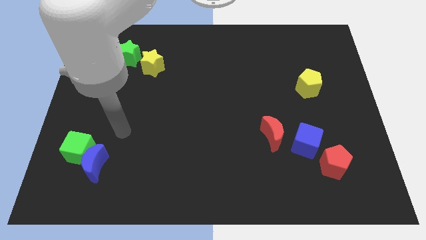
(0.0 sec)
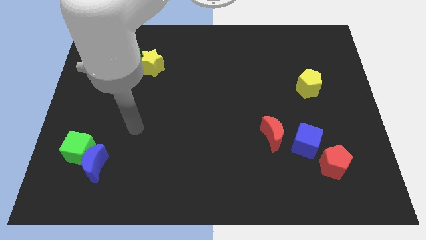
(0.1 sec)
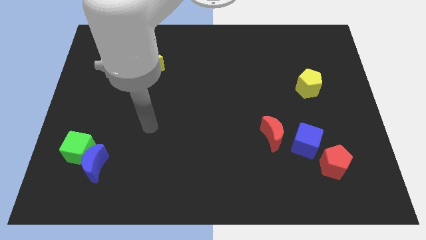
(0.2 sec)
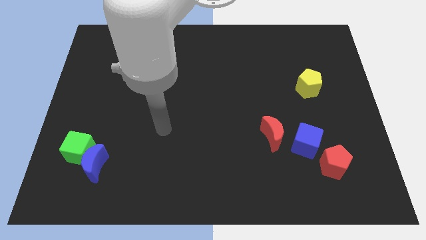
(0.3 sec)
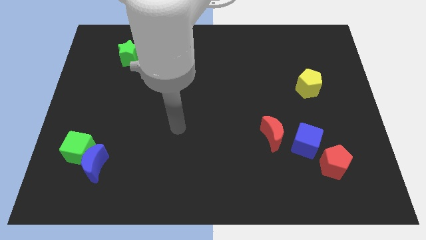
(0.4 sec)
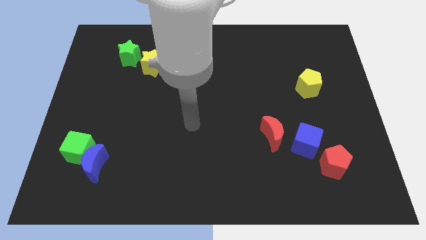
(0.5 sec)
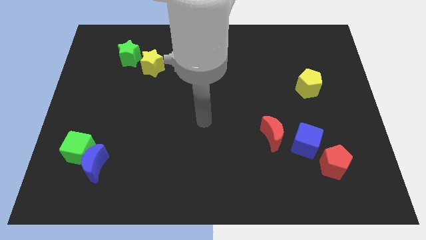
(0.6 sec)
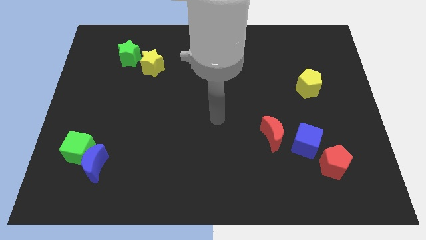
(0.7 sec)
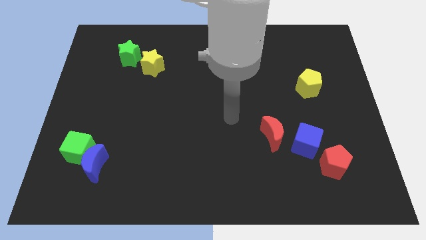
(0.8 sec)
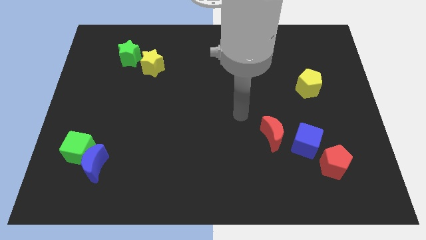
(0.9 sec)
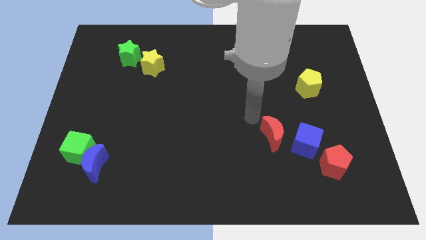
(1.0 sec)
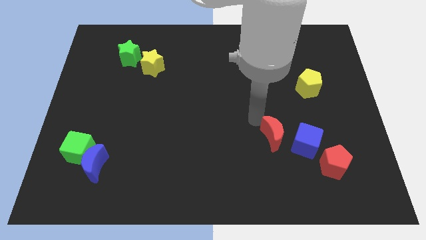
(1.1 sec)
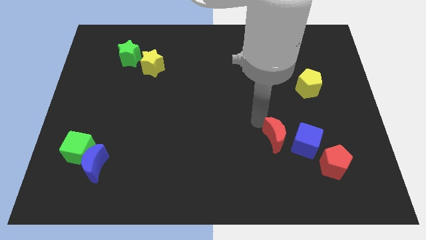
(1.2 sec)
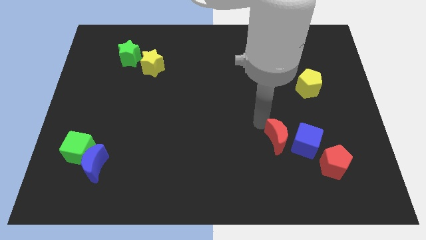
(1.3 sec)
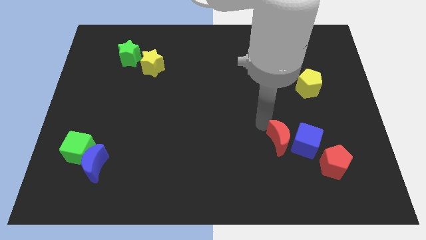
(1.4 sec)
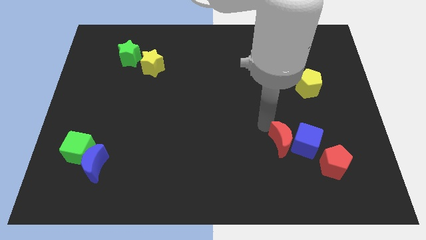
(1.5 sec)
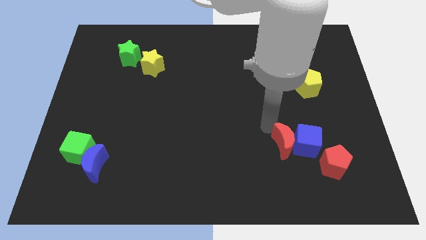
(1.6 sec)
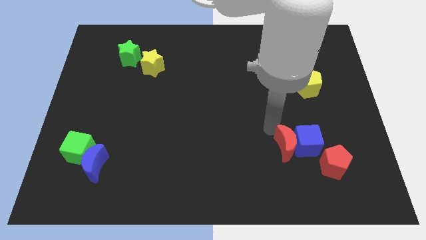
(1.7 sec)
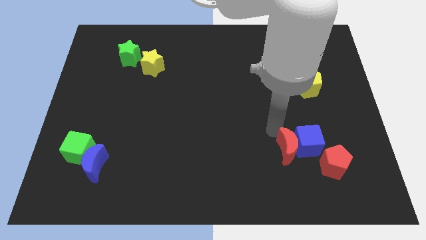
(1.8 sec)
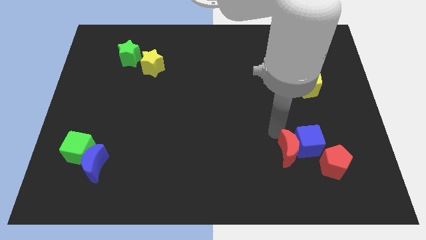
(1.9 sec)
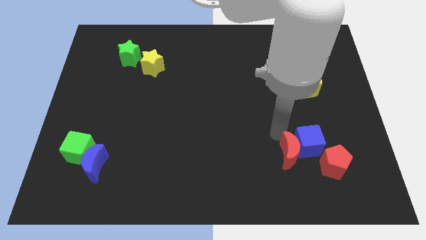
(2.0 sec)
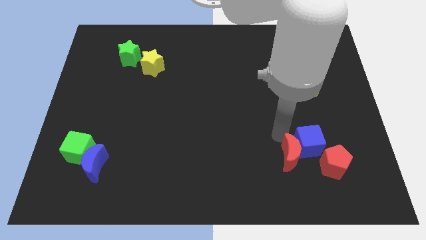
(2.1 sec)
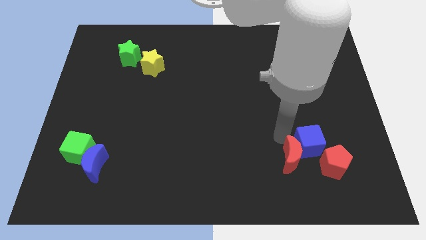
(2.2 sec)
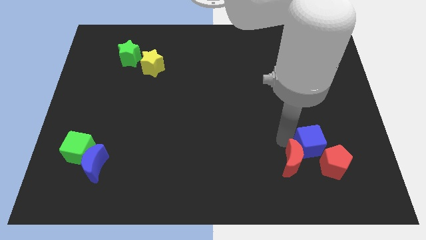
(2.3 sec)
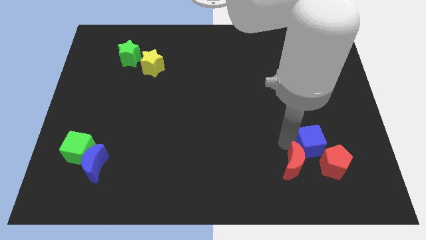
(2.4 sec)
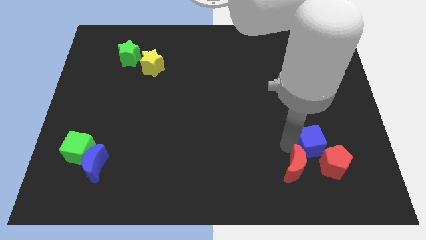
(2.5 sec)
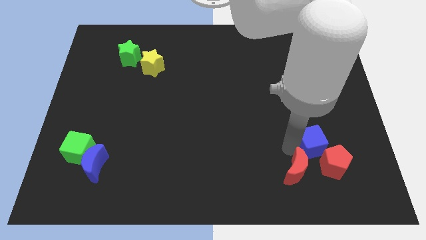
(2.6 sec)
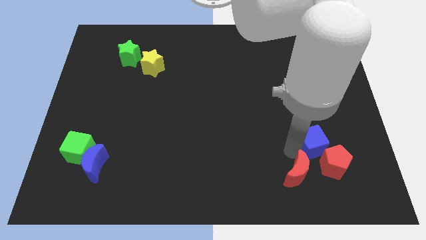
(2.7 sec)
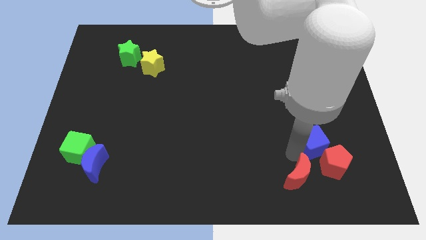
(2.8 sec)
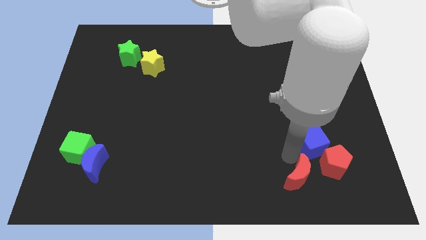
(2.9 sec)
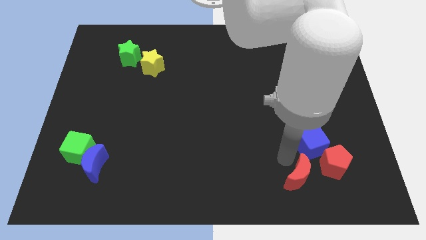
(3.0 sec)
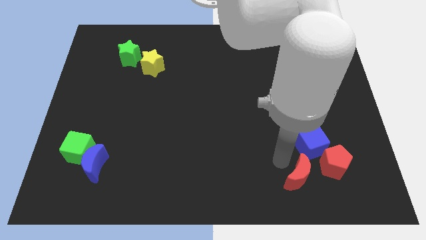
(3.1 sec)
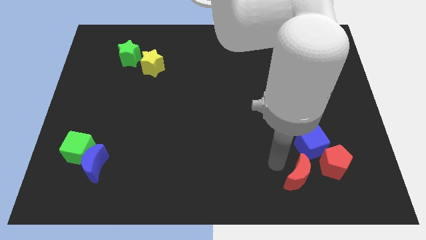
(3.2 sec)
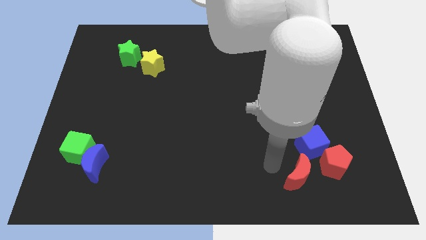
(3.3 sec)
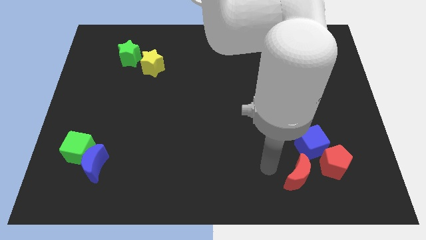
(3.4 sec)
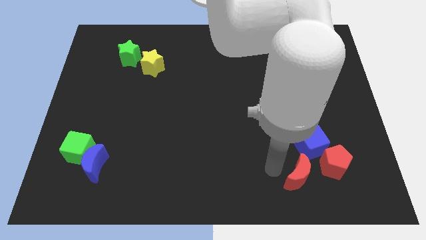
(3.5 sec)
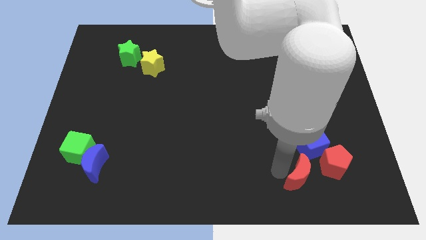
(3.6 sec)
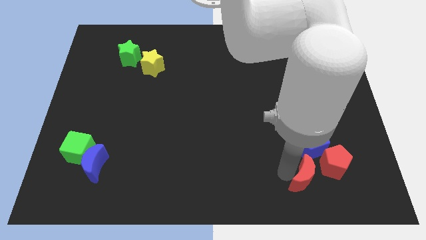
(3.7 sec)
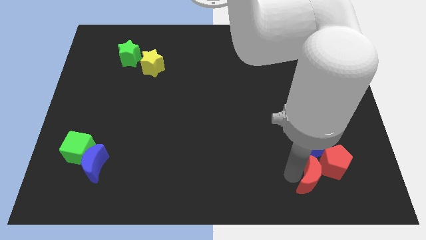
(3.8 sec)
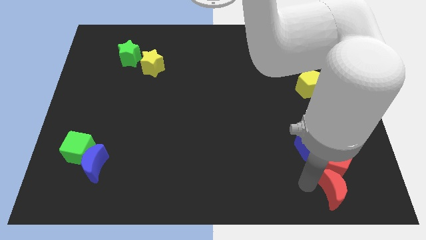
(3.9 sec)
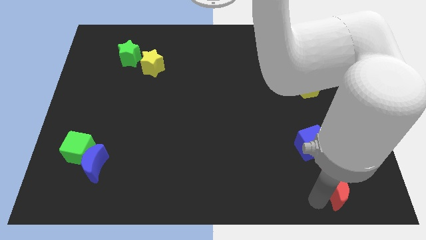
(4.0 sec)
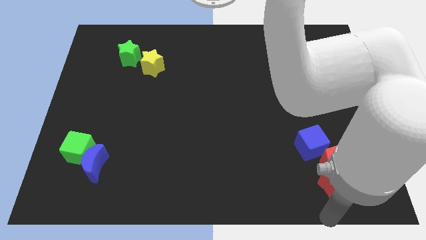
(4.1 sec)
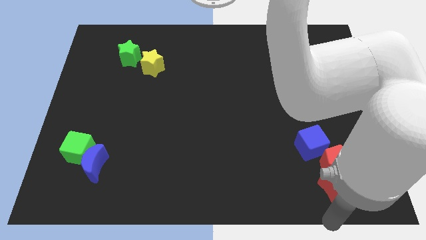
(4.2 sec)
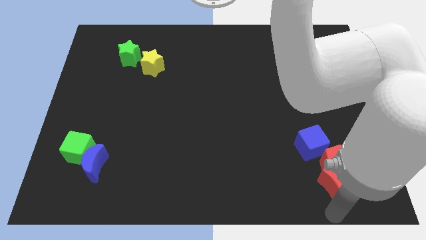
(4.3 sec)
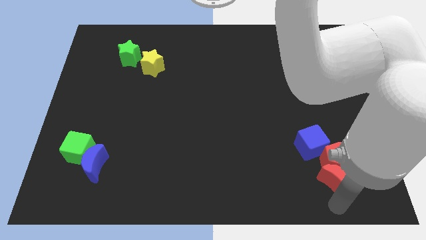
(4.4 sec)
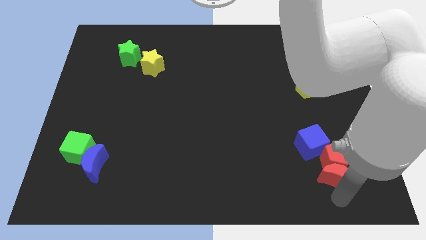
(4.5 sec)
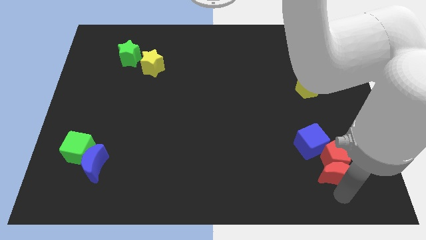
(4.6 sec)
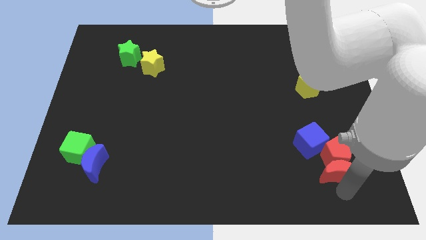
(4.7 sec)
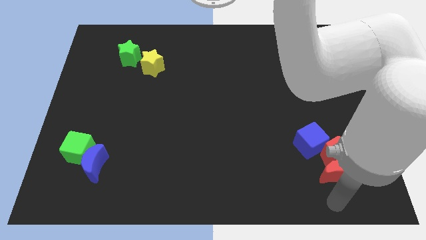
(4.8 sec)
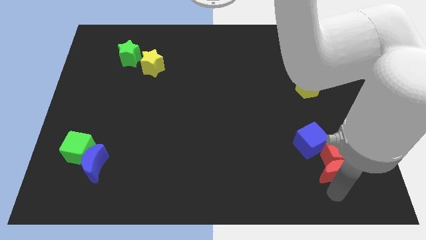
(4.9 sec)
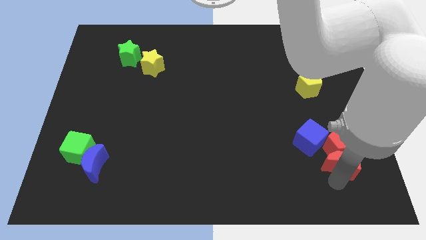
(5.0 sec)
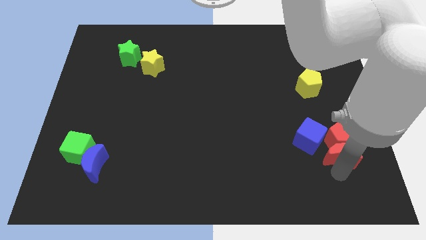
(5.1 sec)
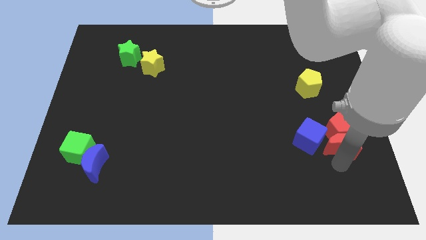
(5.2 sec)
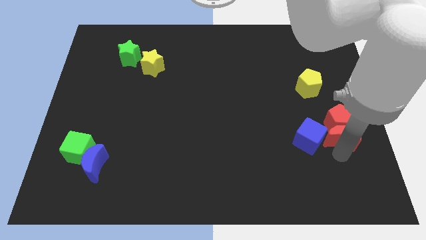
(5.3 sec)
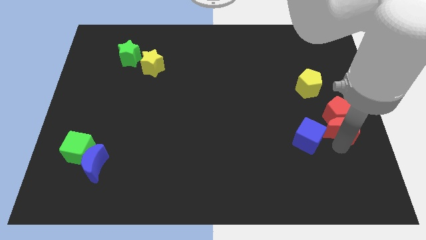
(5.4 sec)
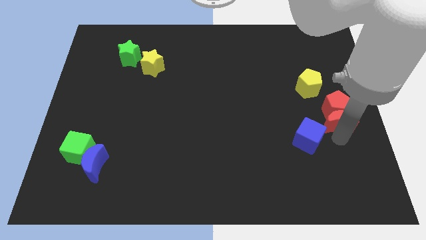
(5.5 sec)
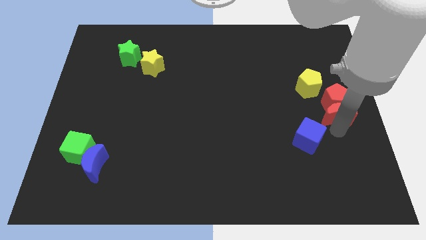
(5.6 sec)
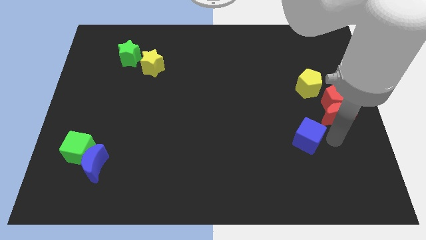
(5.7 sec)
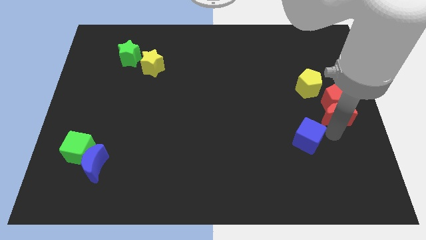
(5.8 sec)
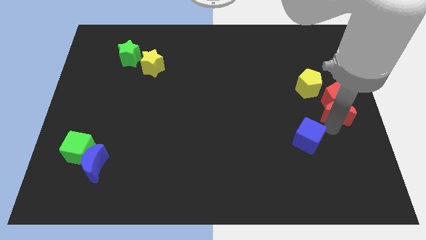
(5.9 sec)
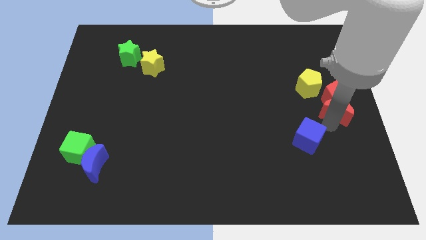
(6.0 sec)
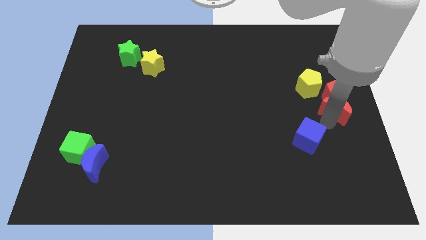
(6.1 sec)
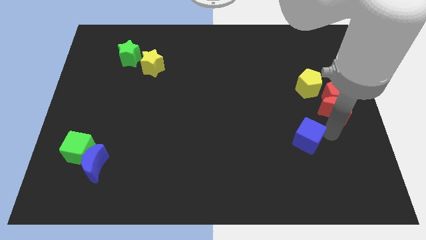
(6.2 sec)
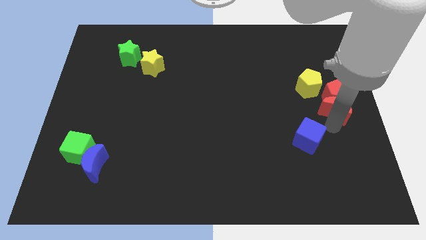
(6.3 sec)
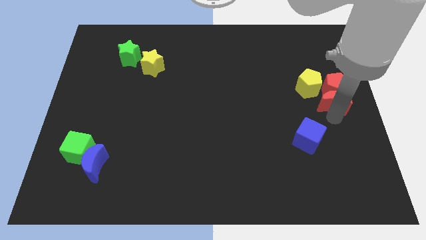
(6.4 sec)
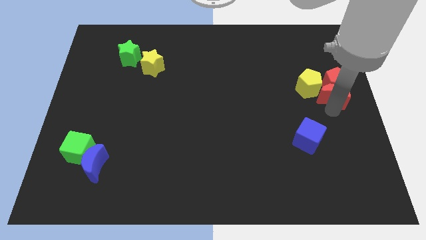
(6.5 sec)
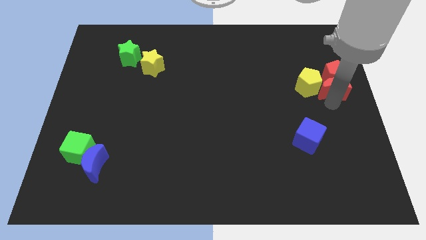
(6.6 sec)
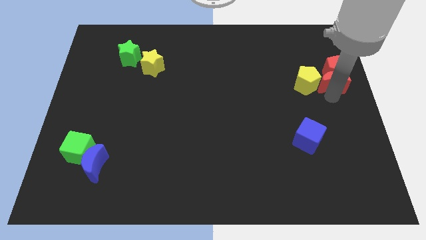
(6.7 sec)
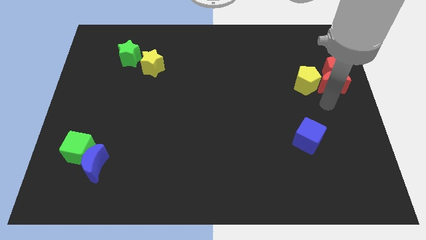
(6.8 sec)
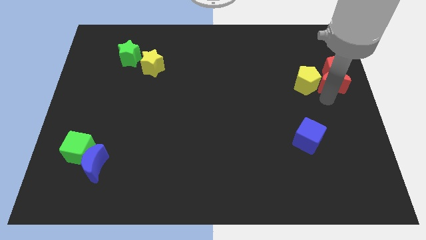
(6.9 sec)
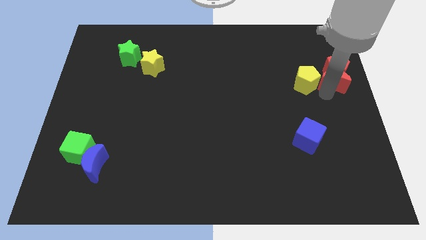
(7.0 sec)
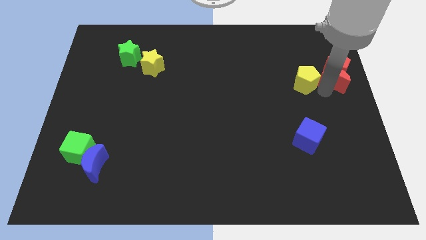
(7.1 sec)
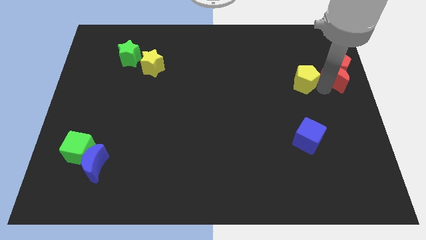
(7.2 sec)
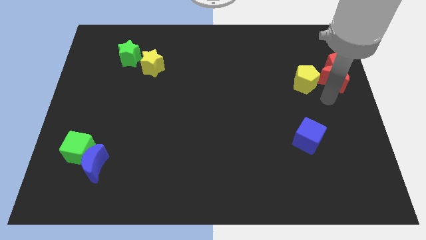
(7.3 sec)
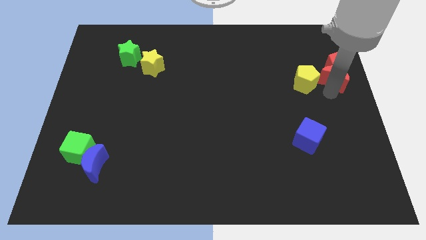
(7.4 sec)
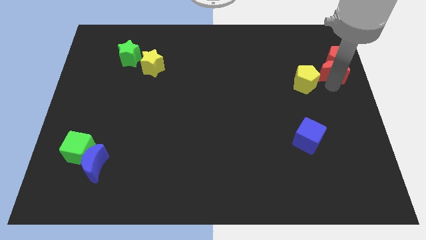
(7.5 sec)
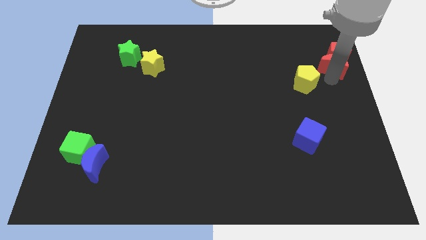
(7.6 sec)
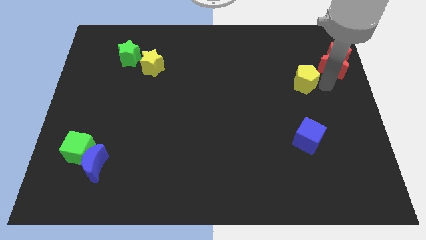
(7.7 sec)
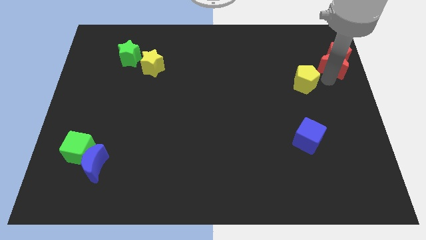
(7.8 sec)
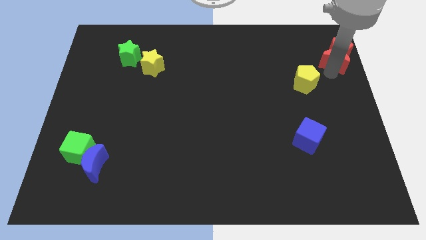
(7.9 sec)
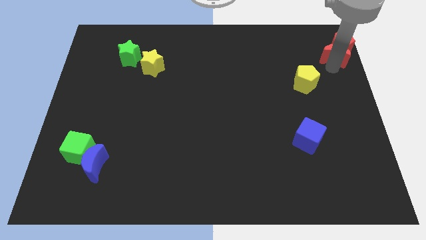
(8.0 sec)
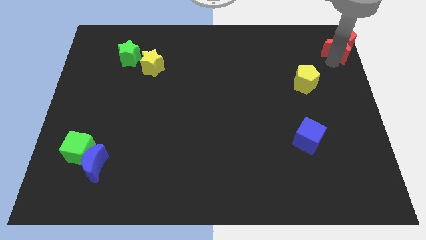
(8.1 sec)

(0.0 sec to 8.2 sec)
slide the red moon to the top right of the board
